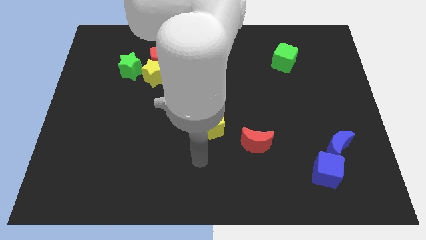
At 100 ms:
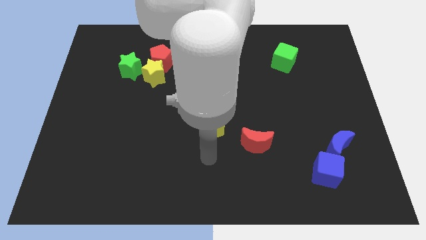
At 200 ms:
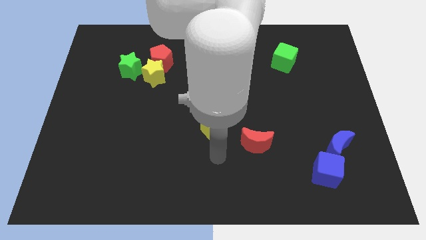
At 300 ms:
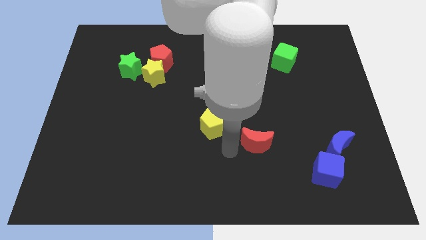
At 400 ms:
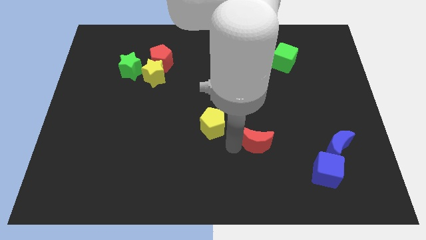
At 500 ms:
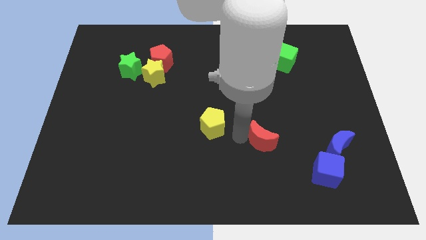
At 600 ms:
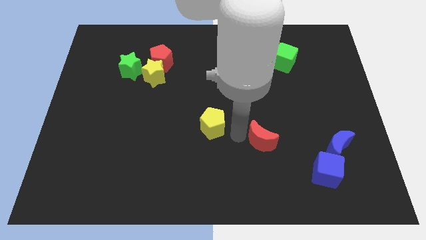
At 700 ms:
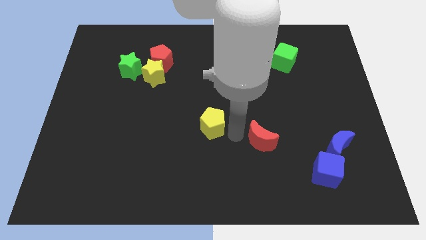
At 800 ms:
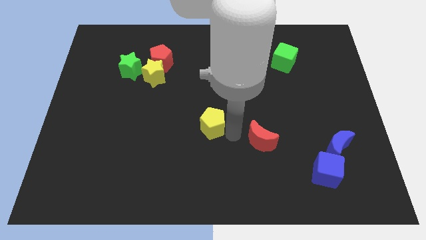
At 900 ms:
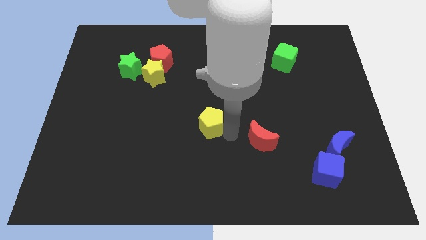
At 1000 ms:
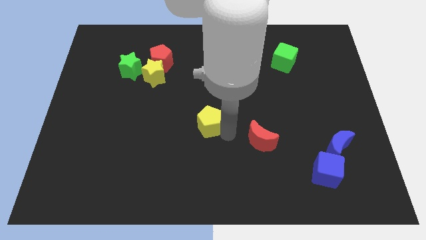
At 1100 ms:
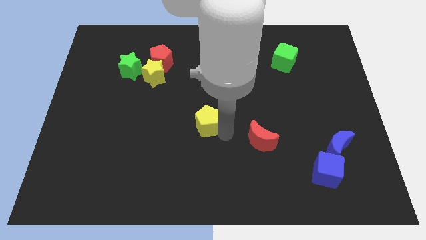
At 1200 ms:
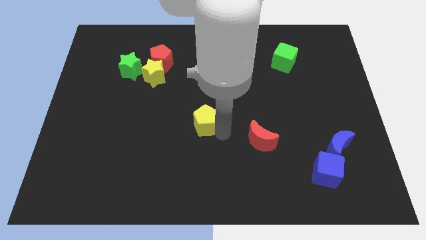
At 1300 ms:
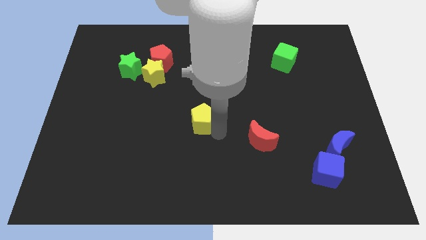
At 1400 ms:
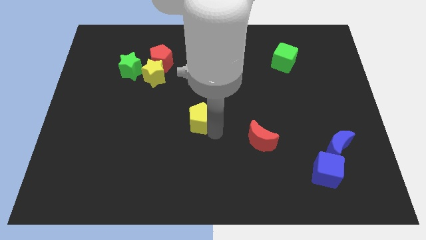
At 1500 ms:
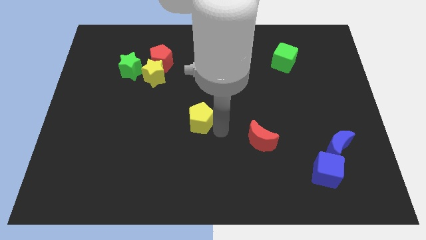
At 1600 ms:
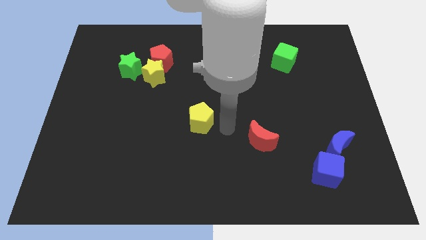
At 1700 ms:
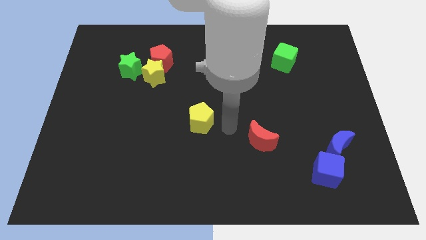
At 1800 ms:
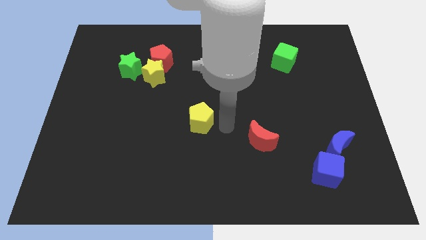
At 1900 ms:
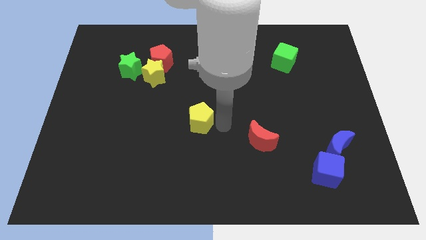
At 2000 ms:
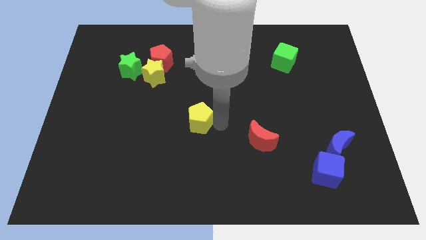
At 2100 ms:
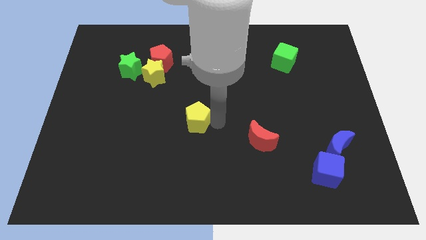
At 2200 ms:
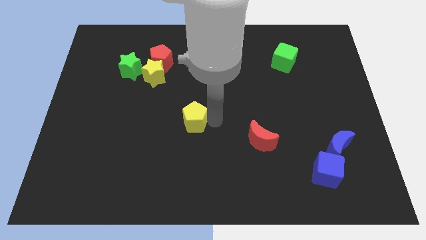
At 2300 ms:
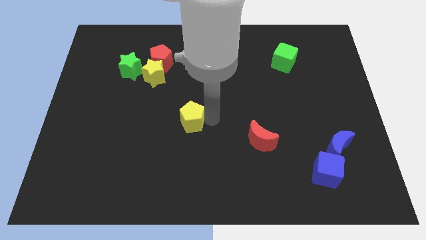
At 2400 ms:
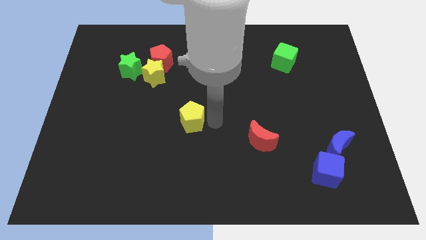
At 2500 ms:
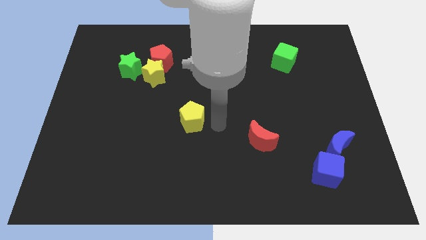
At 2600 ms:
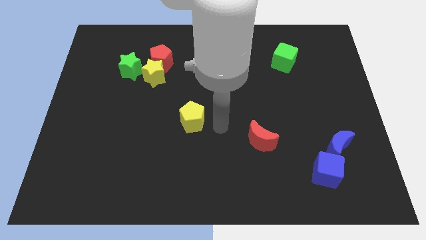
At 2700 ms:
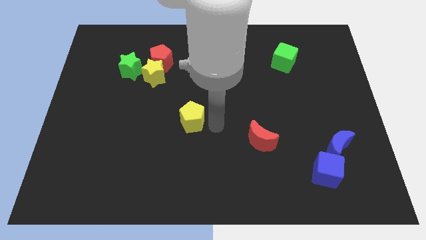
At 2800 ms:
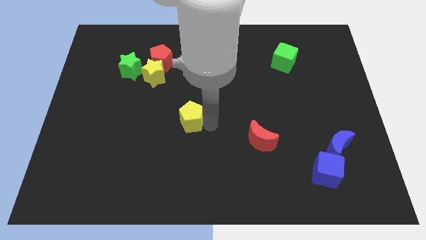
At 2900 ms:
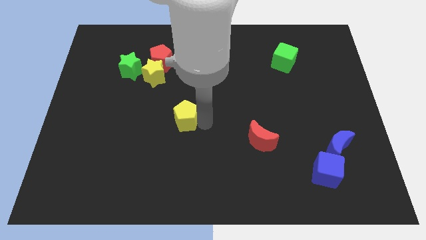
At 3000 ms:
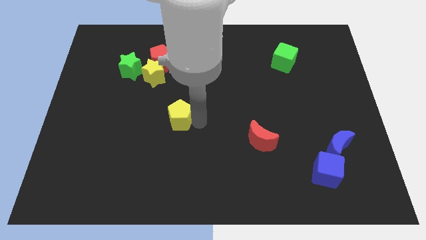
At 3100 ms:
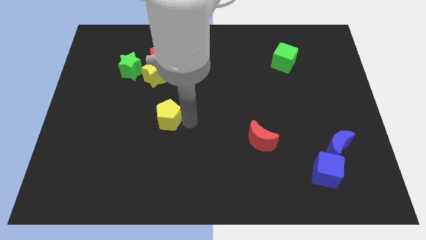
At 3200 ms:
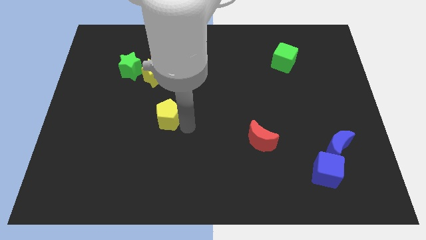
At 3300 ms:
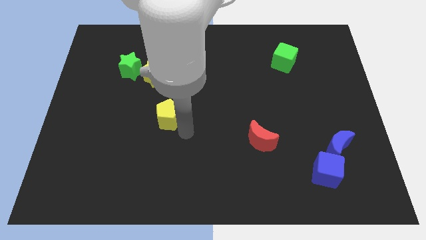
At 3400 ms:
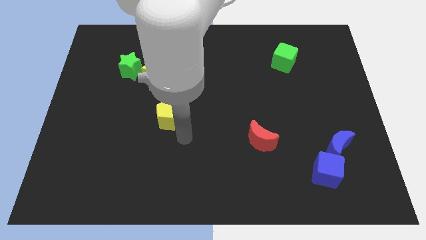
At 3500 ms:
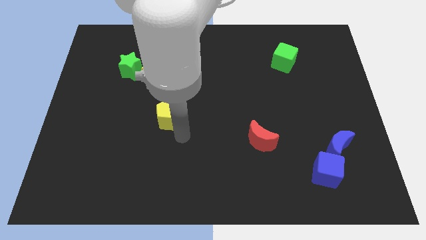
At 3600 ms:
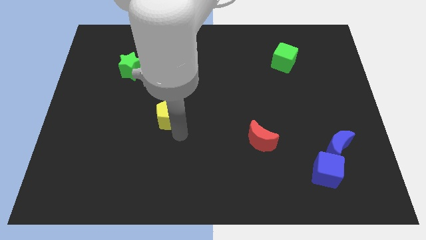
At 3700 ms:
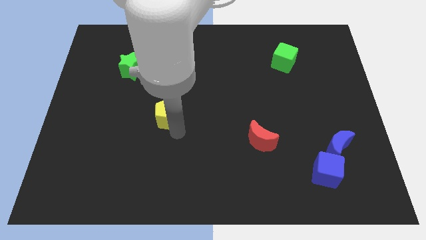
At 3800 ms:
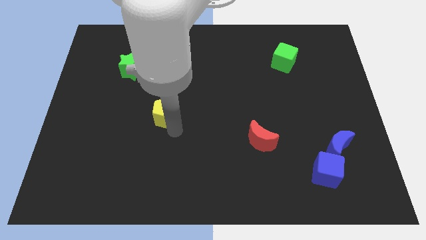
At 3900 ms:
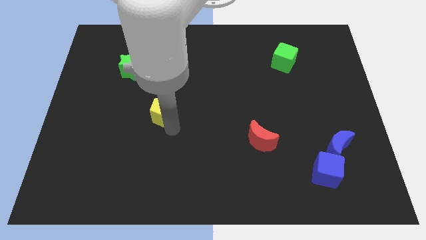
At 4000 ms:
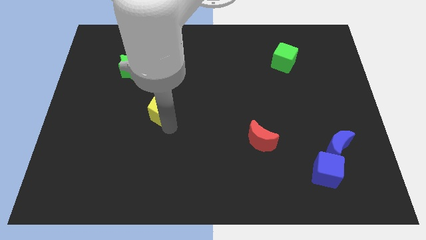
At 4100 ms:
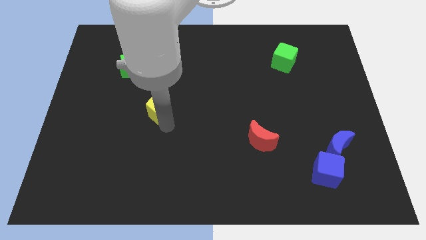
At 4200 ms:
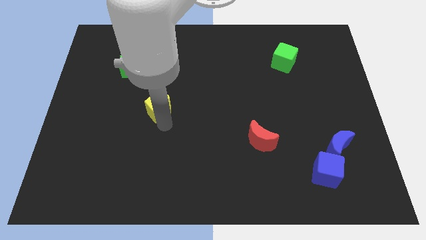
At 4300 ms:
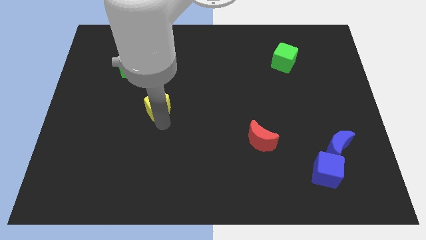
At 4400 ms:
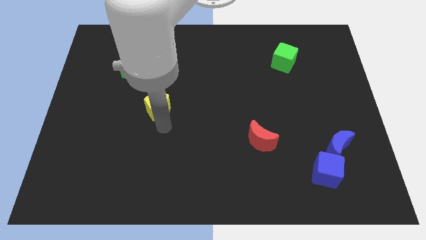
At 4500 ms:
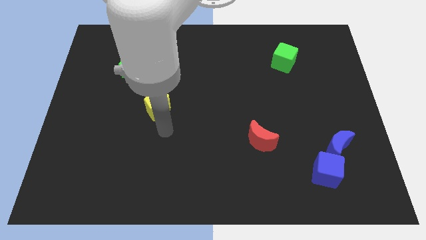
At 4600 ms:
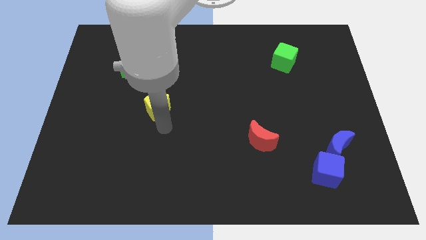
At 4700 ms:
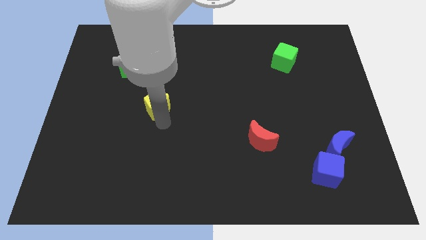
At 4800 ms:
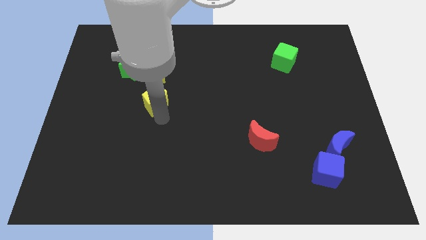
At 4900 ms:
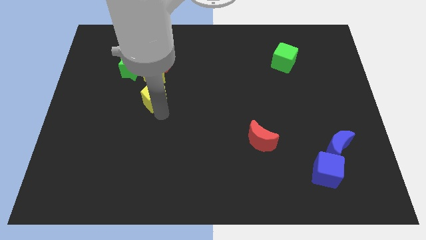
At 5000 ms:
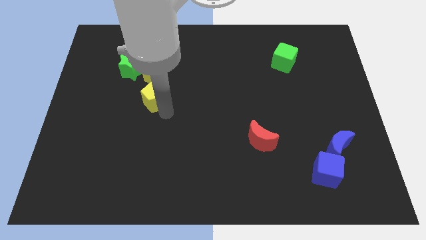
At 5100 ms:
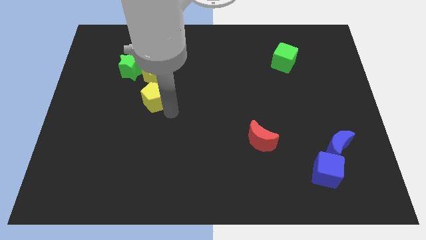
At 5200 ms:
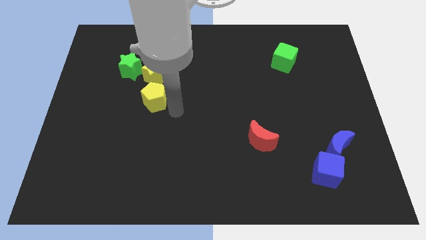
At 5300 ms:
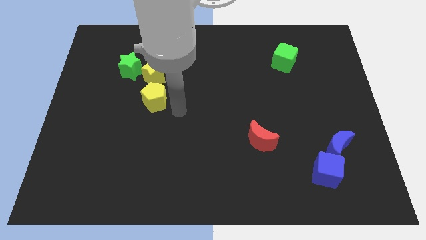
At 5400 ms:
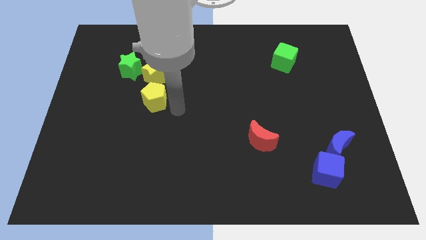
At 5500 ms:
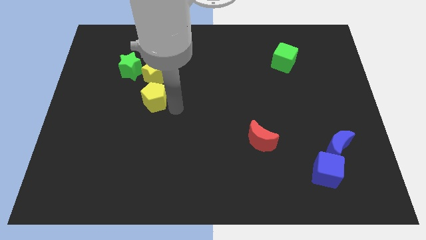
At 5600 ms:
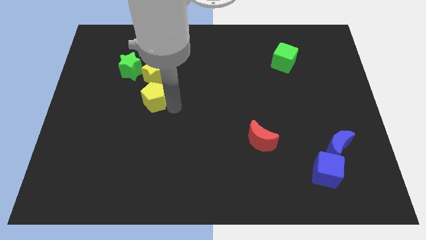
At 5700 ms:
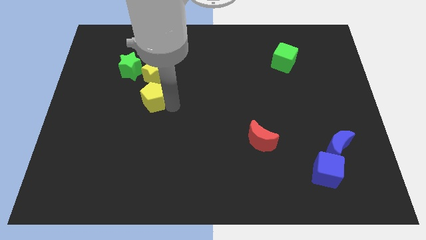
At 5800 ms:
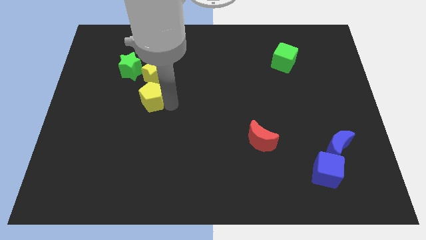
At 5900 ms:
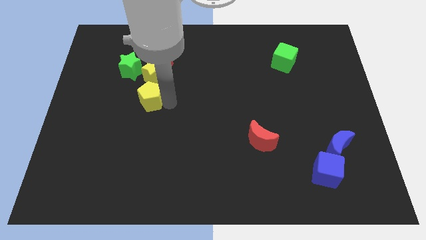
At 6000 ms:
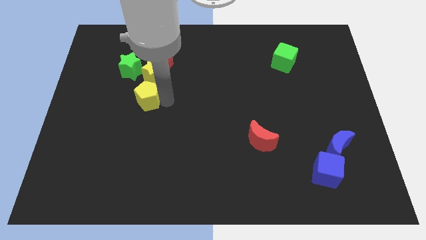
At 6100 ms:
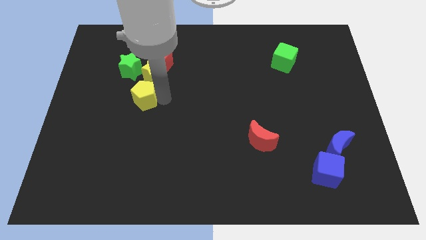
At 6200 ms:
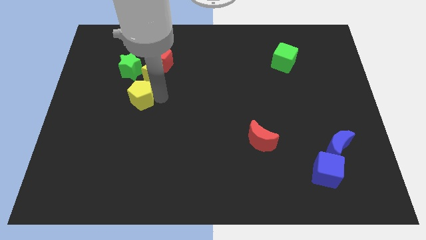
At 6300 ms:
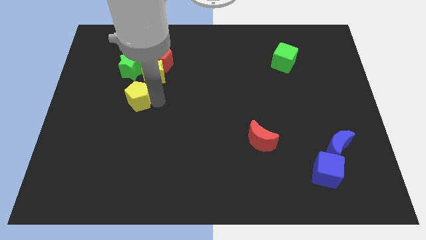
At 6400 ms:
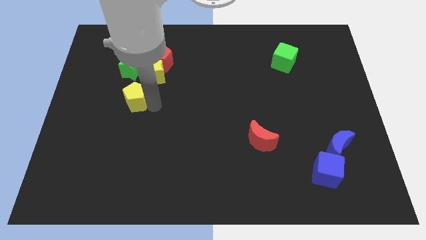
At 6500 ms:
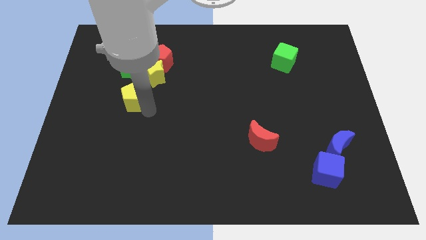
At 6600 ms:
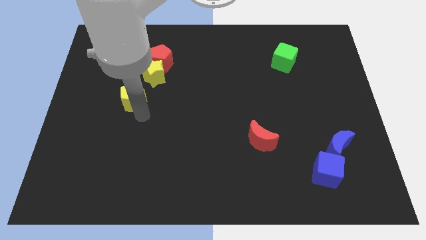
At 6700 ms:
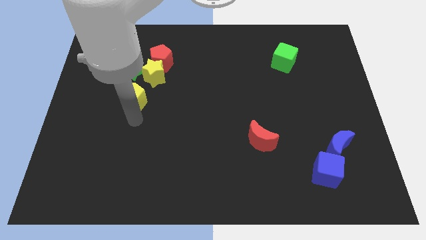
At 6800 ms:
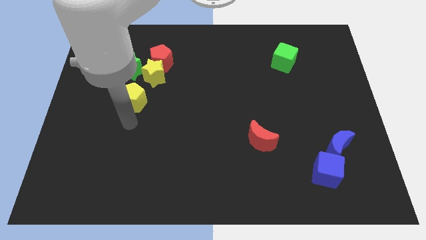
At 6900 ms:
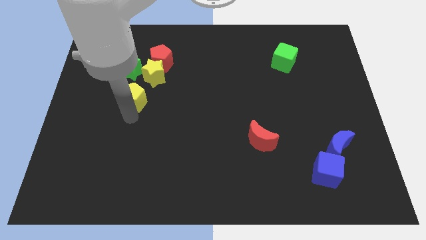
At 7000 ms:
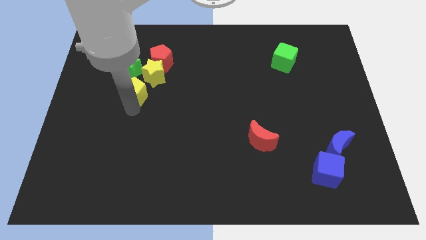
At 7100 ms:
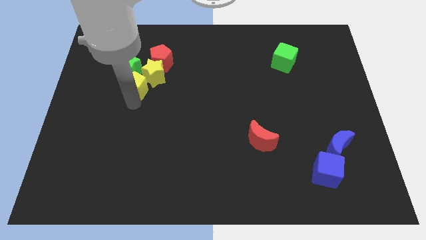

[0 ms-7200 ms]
move the yellow pentagon diagonally down and to the left of the red pentagon

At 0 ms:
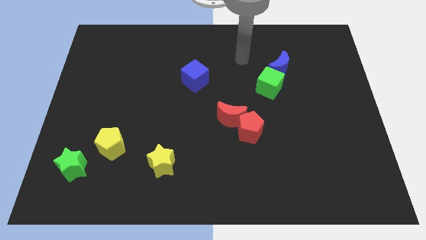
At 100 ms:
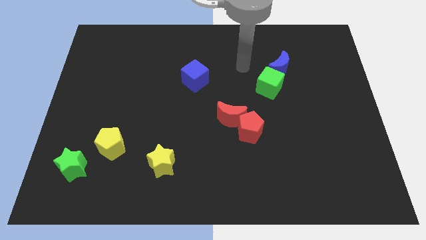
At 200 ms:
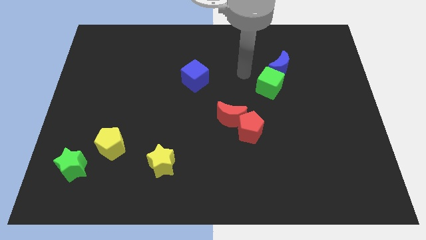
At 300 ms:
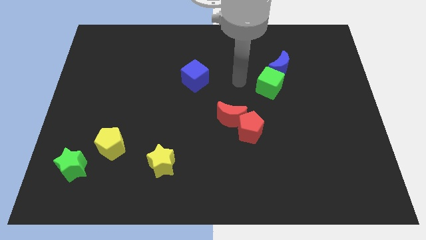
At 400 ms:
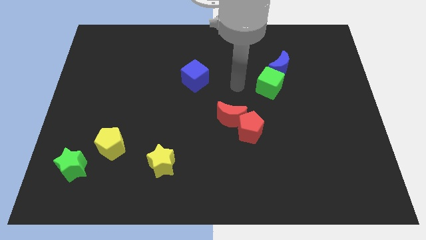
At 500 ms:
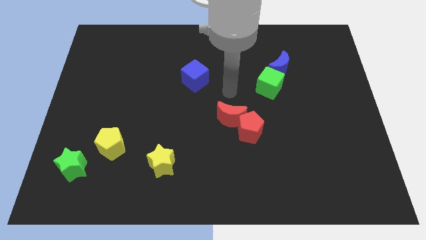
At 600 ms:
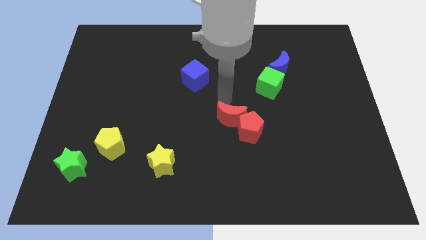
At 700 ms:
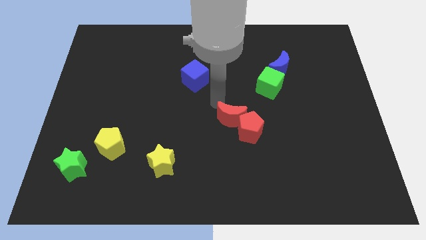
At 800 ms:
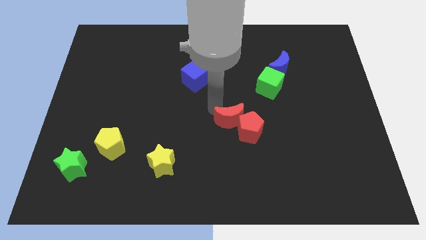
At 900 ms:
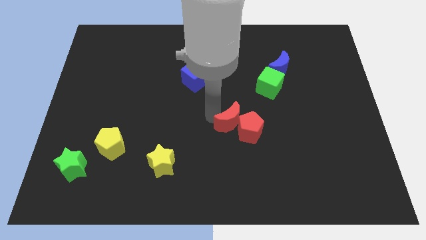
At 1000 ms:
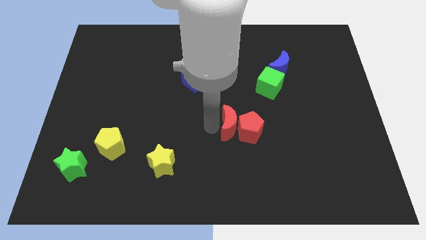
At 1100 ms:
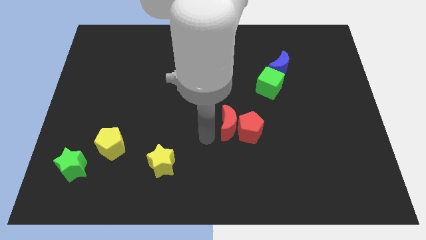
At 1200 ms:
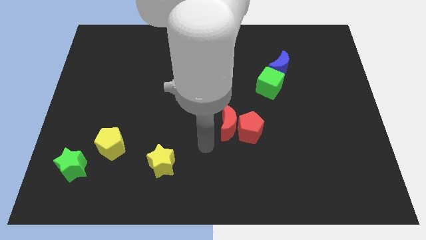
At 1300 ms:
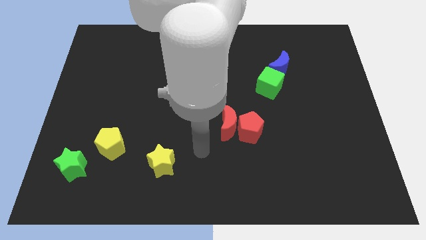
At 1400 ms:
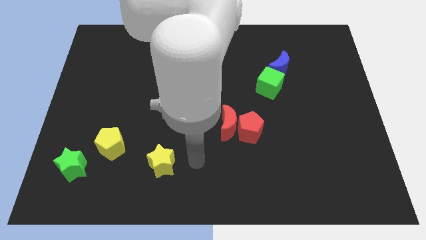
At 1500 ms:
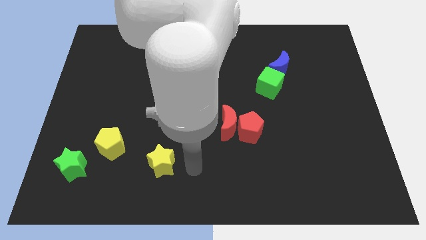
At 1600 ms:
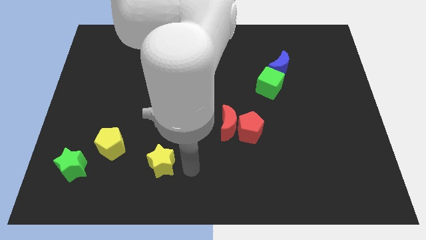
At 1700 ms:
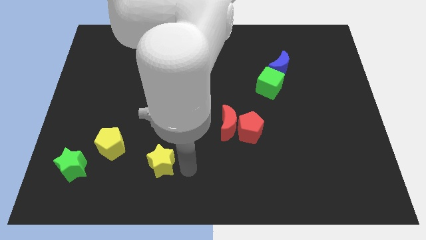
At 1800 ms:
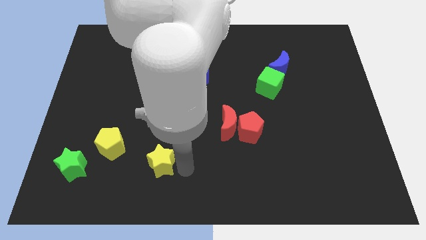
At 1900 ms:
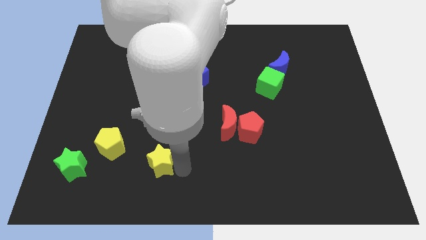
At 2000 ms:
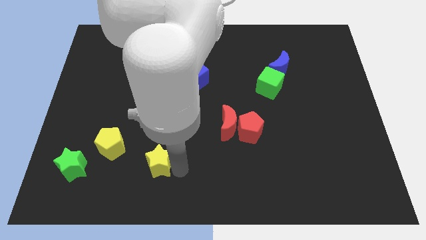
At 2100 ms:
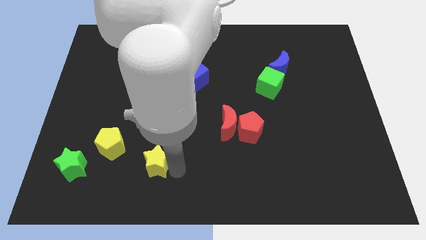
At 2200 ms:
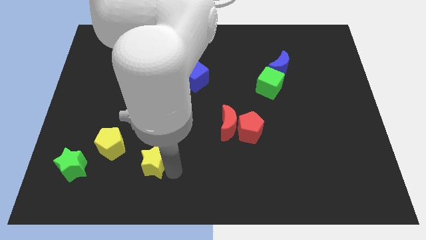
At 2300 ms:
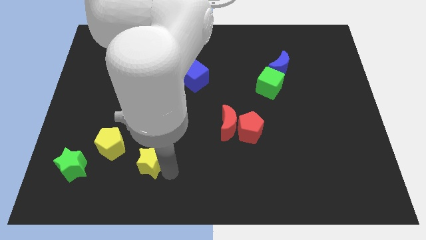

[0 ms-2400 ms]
put the yellow star to the right of the green star
